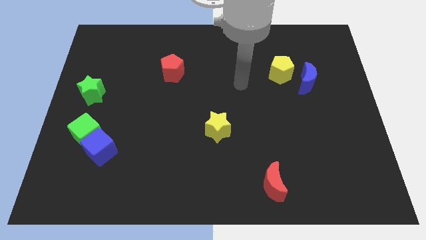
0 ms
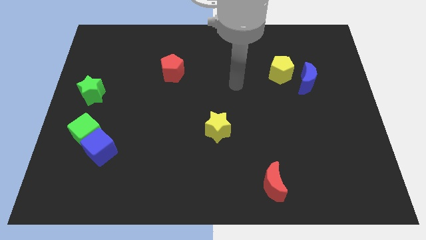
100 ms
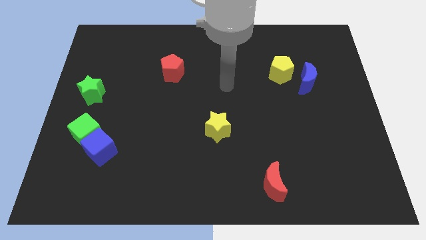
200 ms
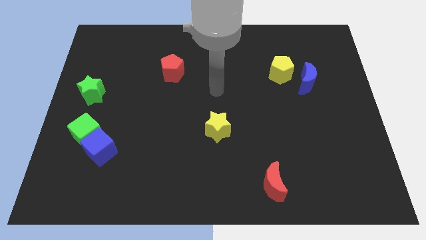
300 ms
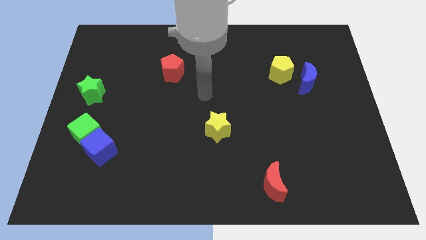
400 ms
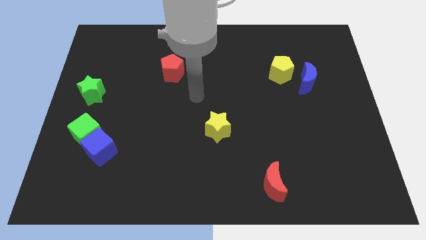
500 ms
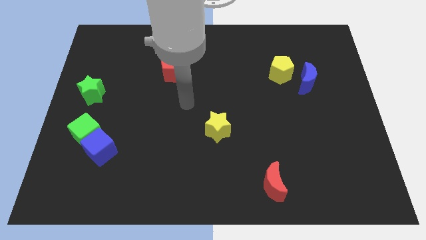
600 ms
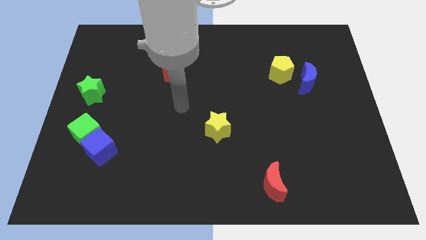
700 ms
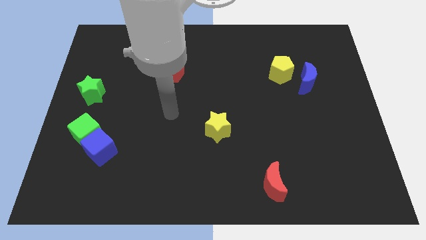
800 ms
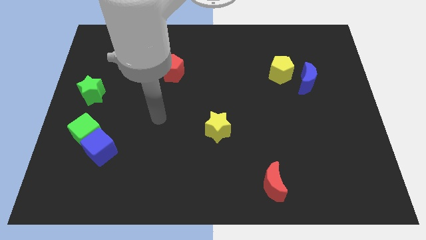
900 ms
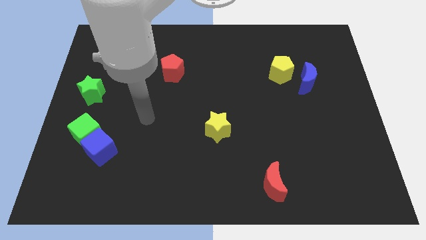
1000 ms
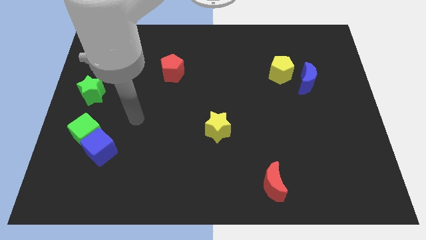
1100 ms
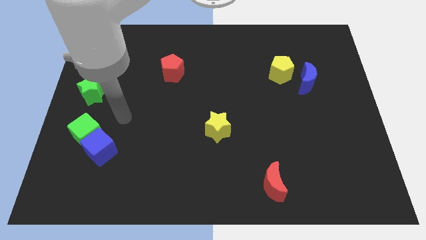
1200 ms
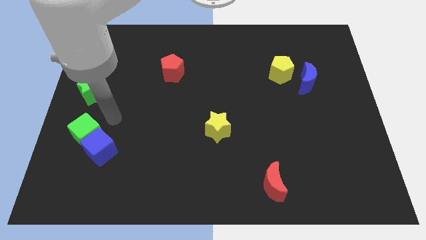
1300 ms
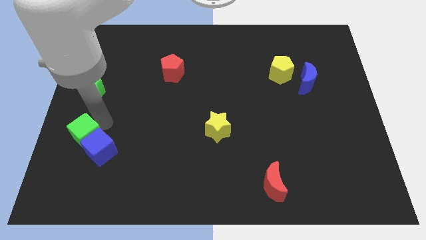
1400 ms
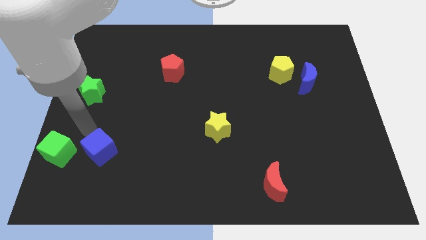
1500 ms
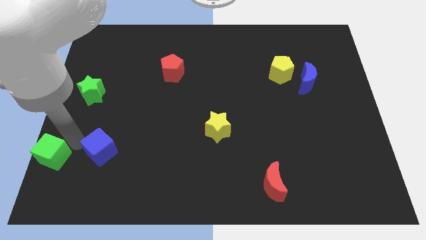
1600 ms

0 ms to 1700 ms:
pull the blue cube apart from the green cube

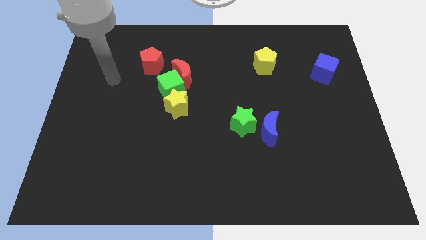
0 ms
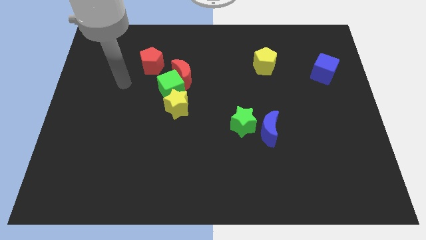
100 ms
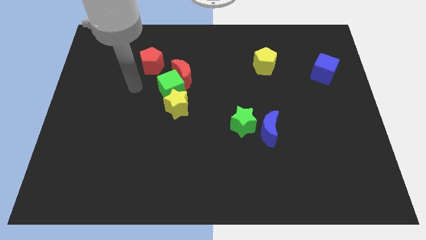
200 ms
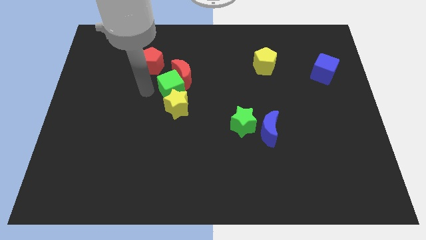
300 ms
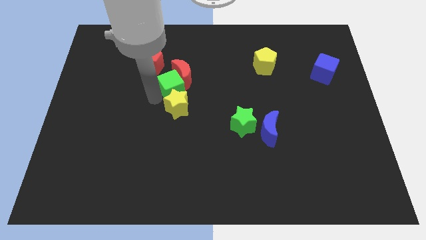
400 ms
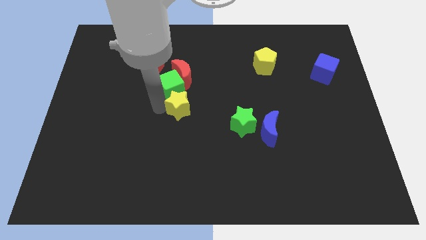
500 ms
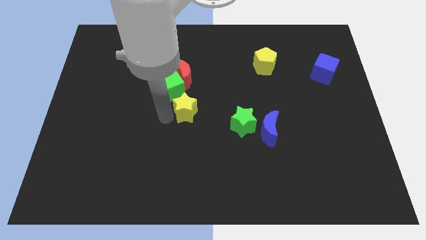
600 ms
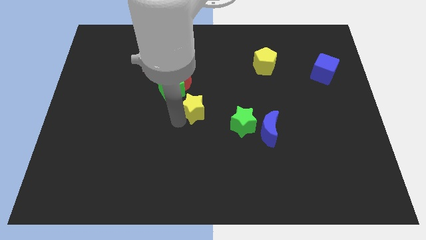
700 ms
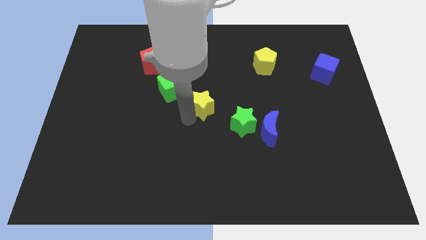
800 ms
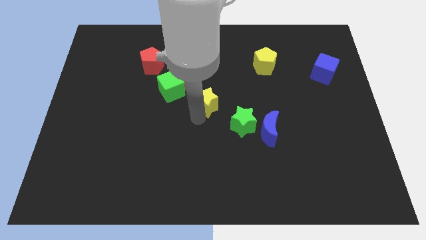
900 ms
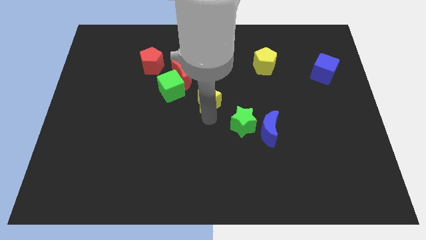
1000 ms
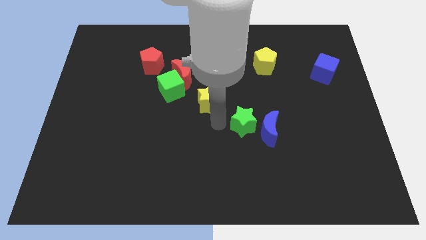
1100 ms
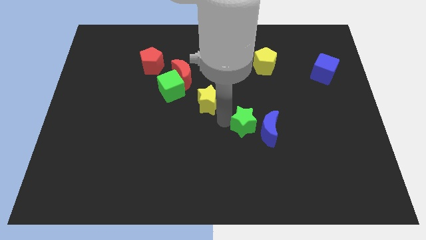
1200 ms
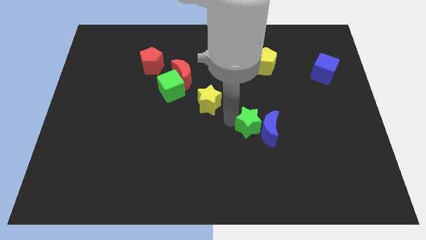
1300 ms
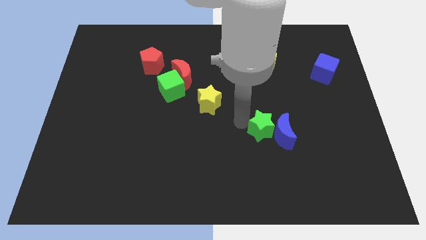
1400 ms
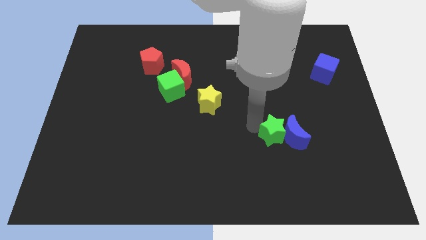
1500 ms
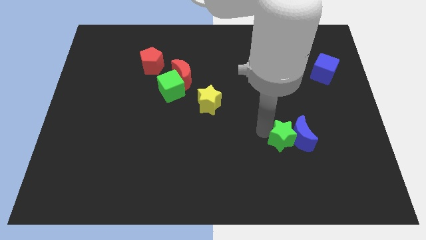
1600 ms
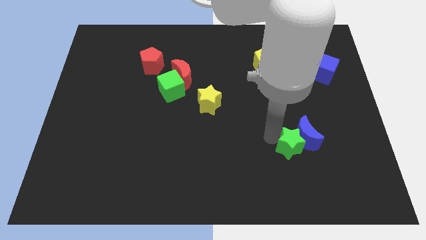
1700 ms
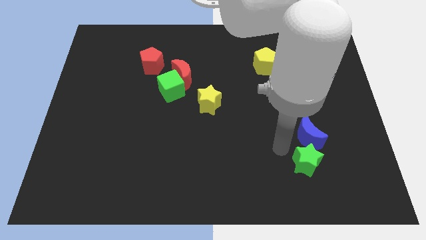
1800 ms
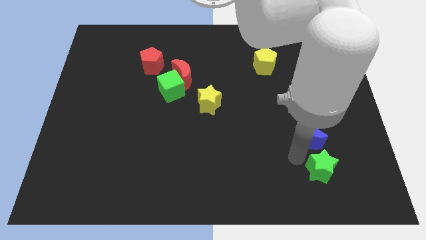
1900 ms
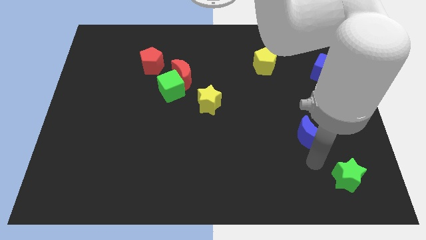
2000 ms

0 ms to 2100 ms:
pull the blue moon apart from the green star

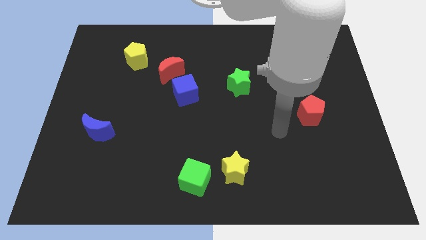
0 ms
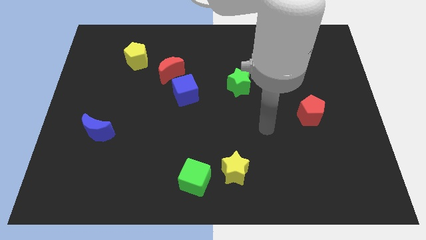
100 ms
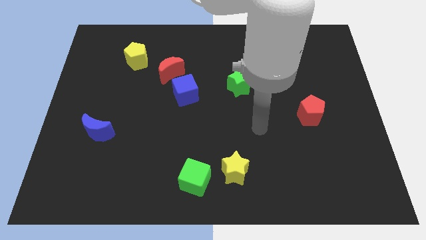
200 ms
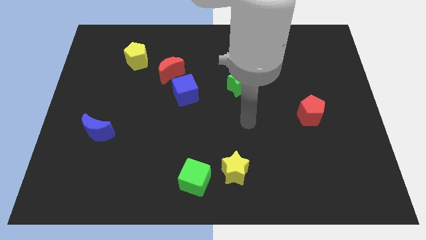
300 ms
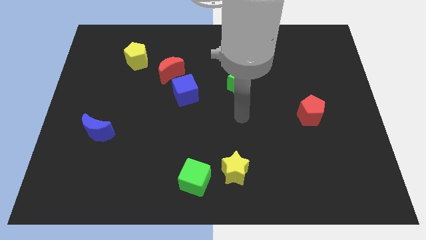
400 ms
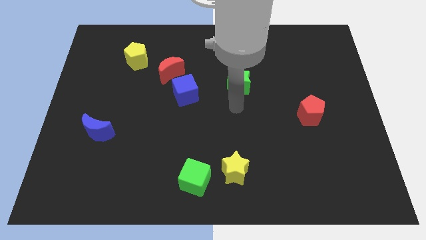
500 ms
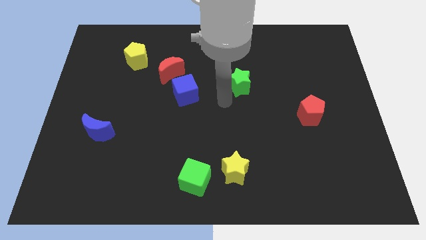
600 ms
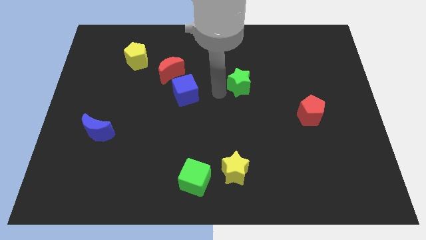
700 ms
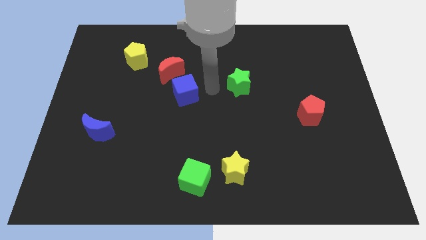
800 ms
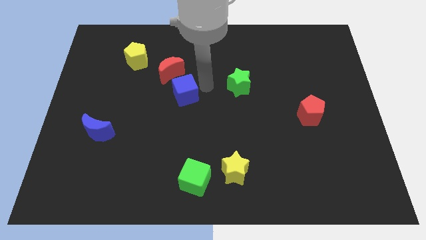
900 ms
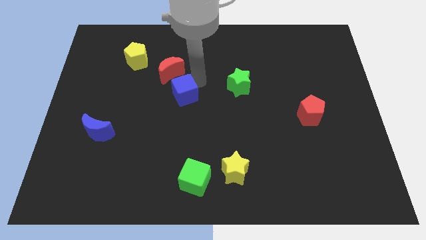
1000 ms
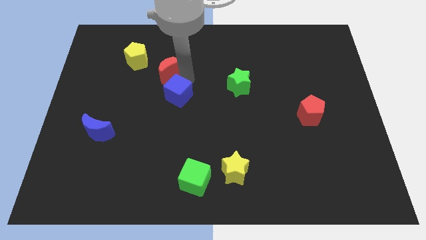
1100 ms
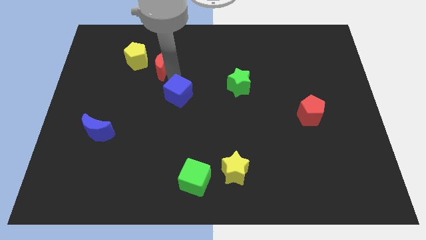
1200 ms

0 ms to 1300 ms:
pull the blue cube apart from the red moon

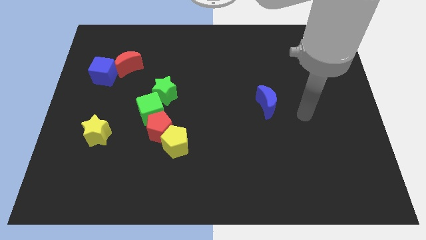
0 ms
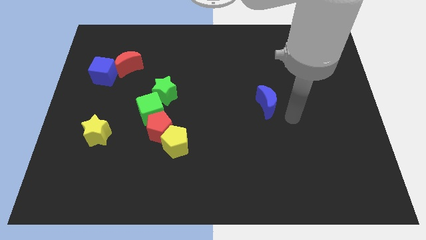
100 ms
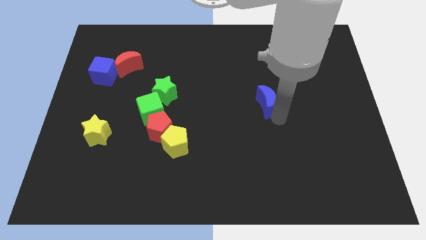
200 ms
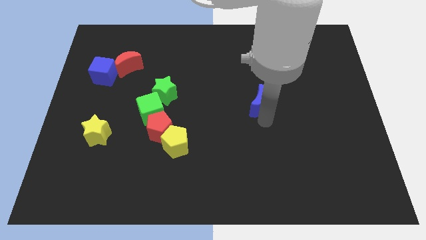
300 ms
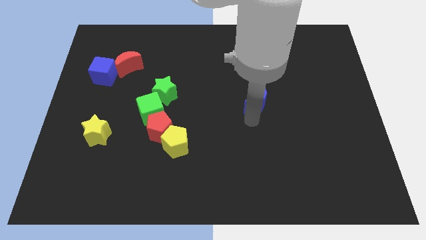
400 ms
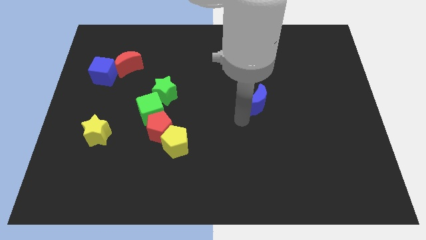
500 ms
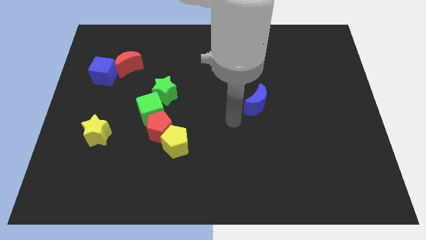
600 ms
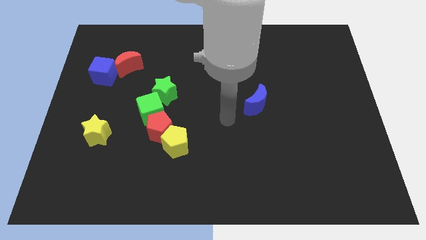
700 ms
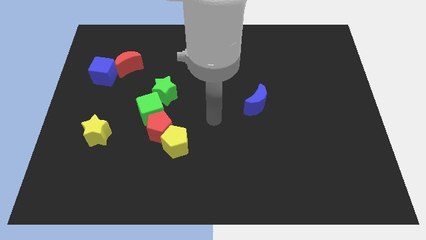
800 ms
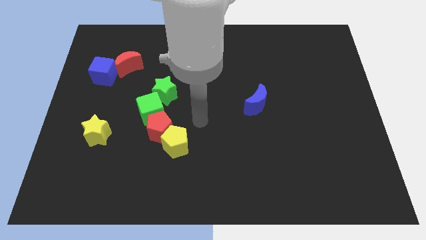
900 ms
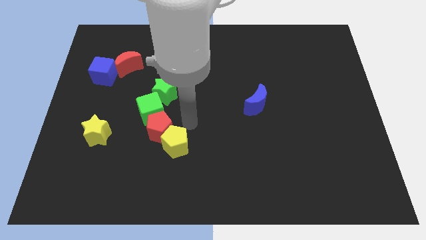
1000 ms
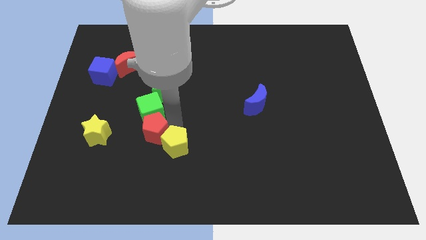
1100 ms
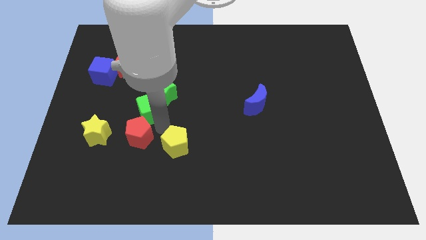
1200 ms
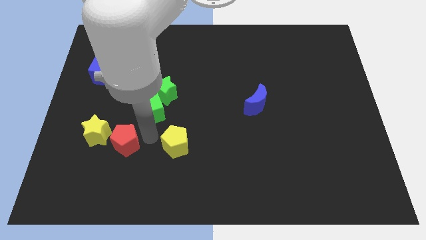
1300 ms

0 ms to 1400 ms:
pull the yellow pentagon apart from the red pentagon

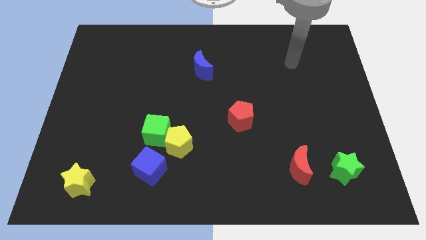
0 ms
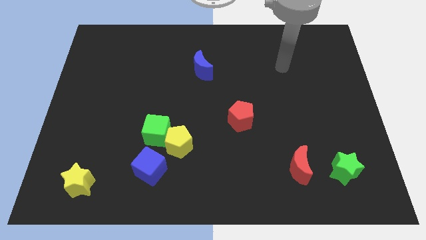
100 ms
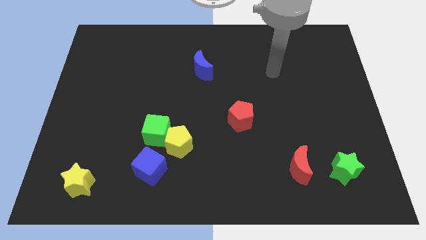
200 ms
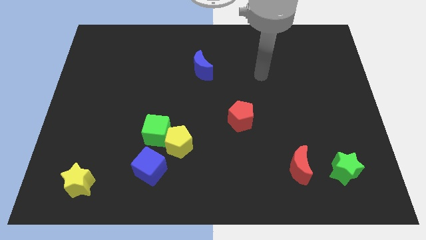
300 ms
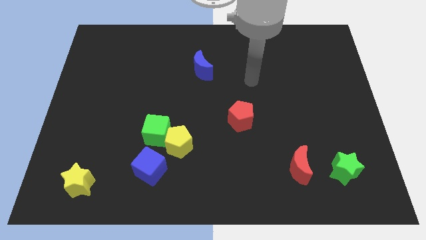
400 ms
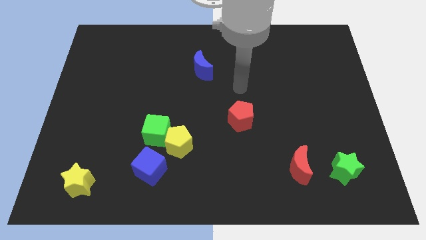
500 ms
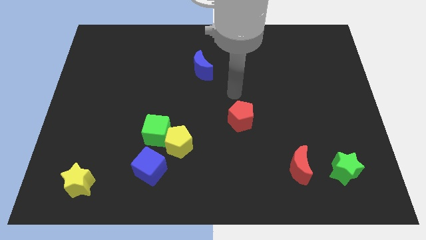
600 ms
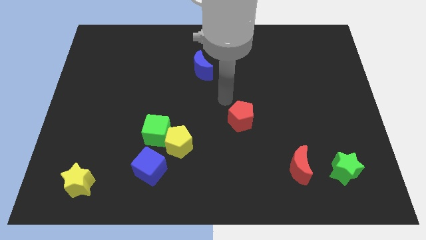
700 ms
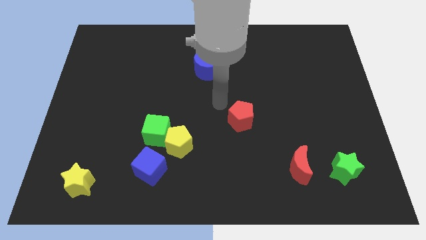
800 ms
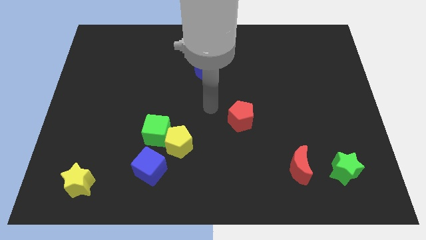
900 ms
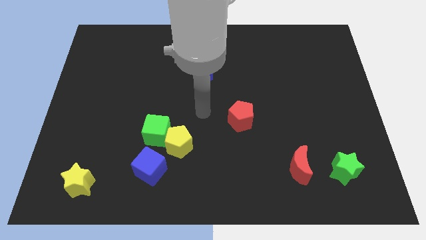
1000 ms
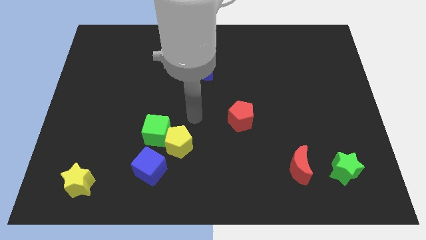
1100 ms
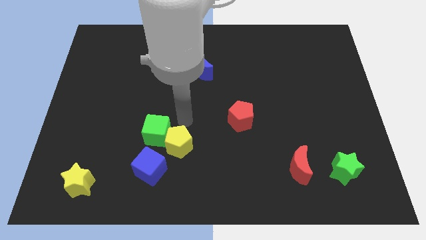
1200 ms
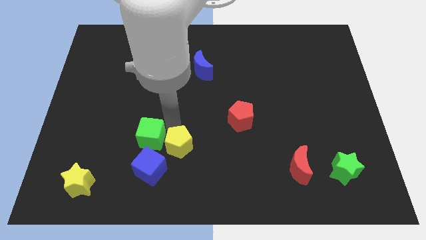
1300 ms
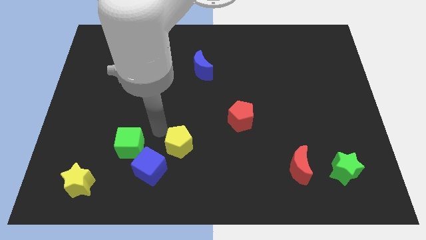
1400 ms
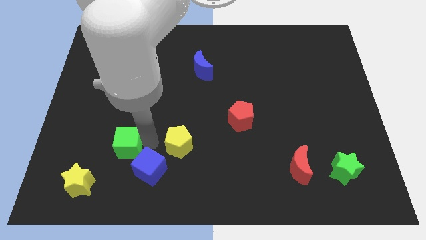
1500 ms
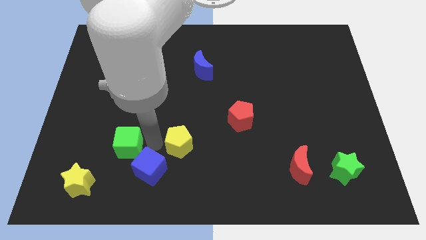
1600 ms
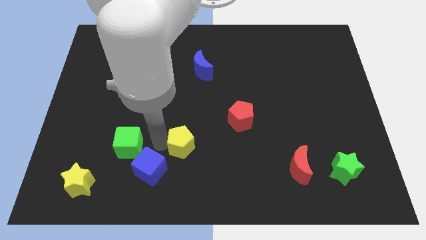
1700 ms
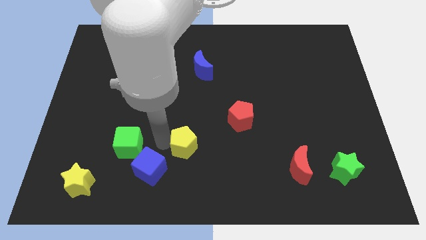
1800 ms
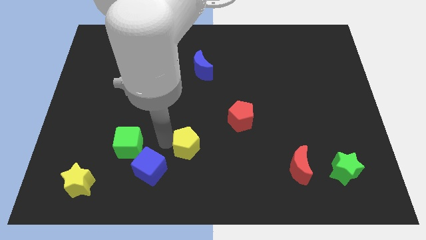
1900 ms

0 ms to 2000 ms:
move the yellow pentagon away from the green cube and blue cube

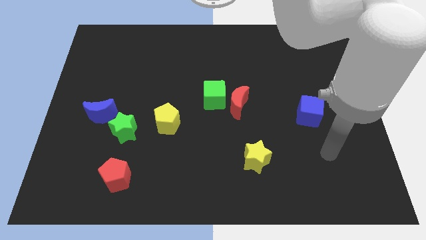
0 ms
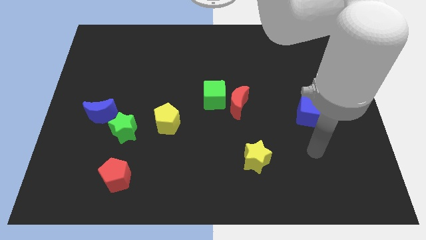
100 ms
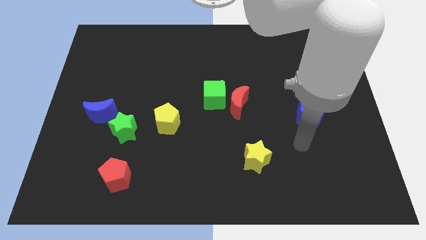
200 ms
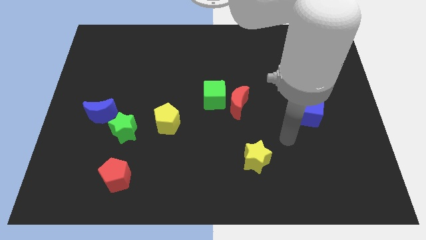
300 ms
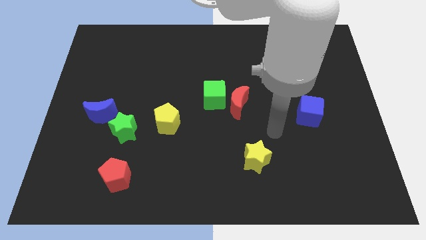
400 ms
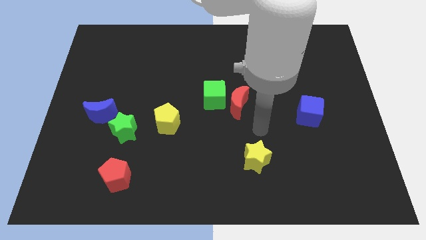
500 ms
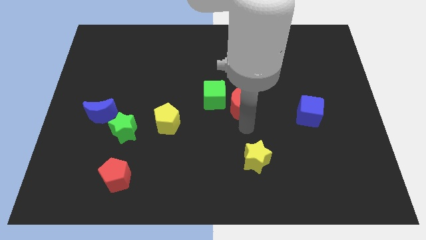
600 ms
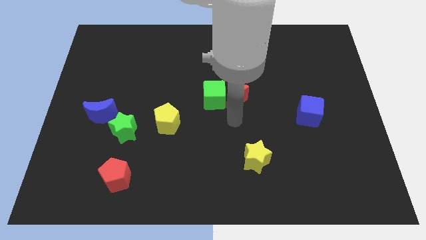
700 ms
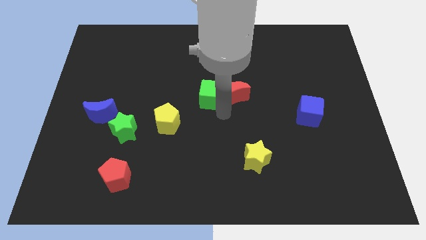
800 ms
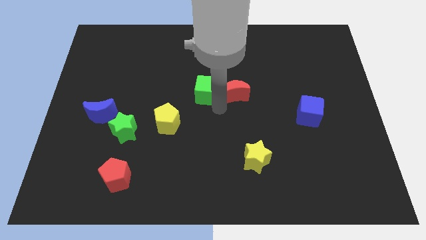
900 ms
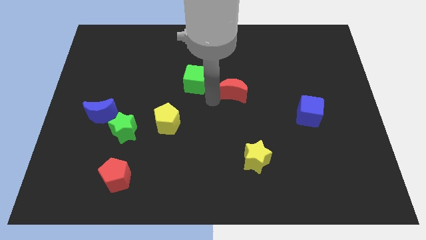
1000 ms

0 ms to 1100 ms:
pull the red moon apart from the green cube
